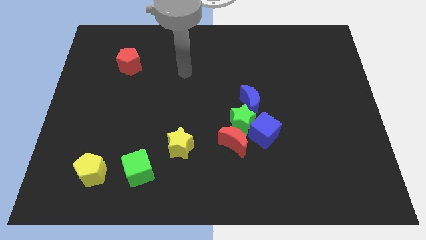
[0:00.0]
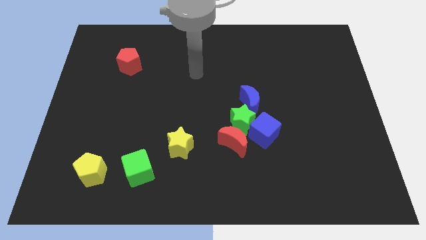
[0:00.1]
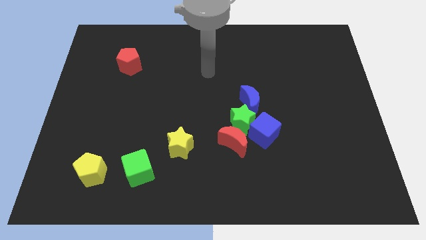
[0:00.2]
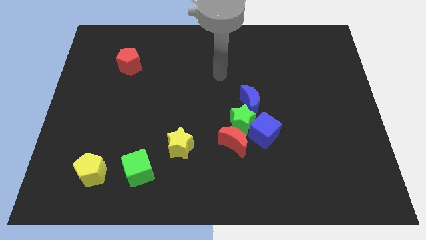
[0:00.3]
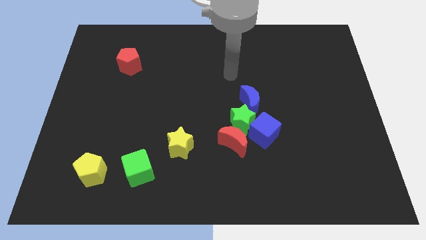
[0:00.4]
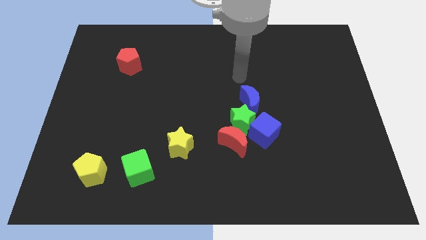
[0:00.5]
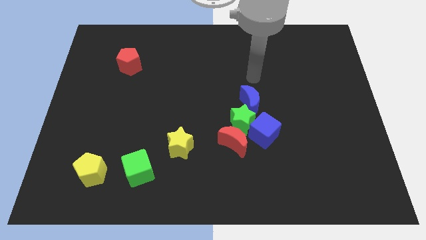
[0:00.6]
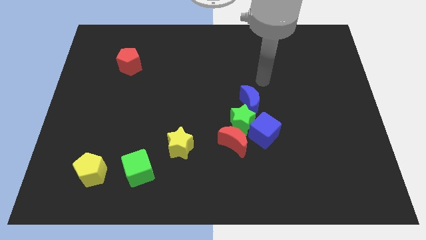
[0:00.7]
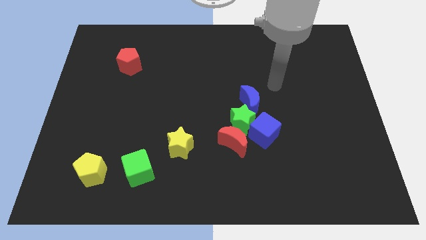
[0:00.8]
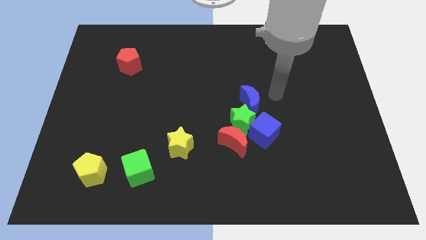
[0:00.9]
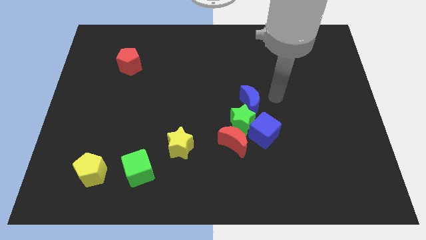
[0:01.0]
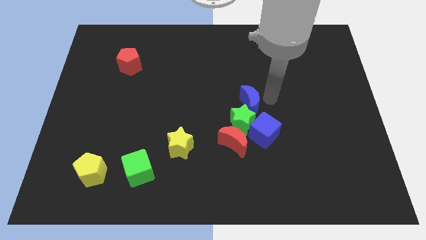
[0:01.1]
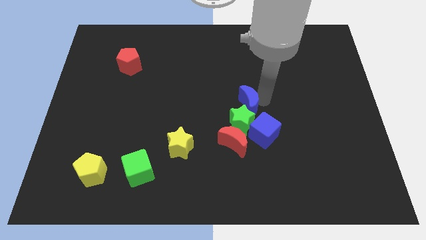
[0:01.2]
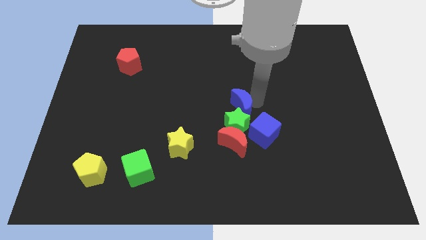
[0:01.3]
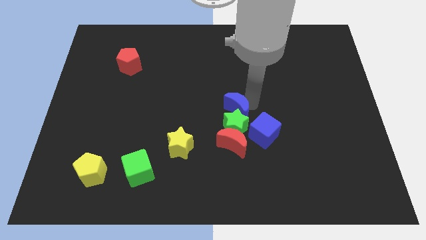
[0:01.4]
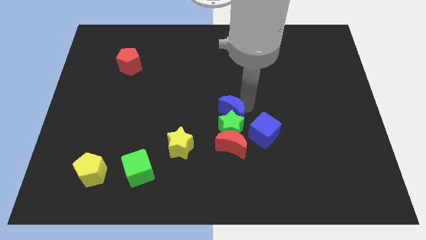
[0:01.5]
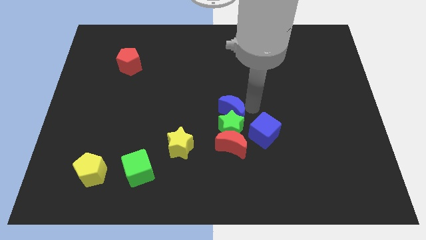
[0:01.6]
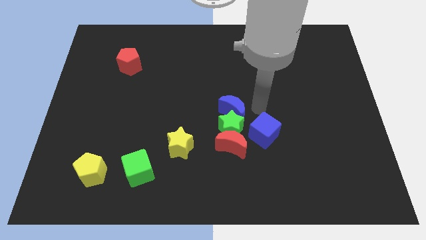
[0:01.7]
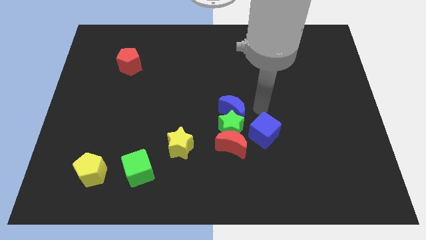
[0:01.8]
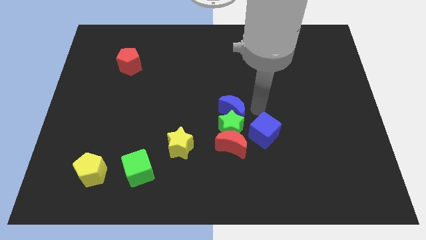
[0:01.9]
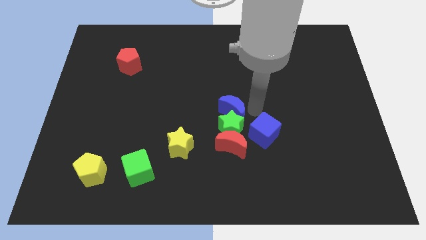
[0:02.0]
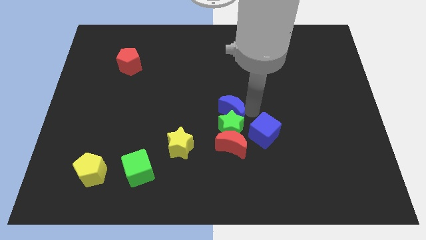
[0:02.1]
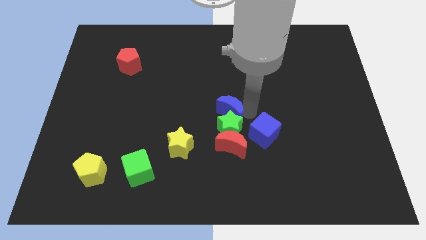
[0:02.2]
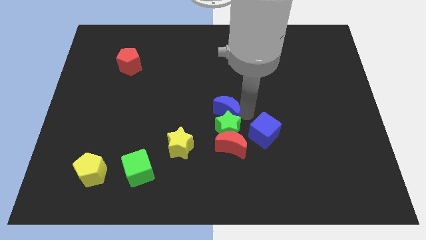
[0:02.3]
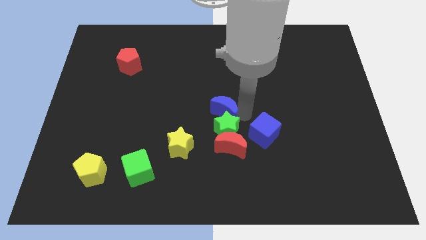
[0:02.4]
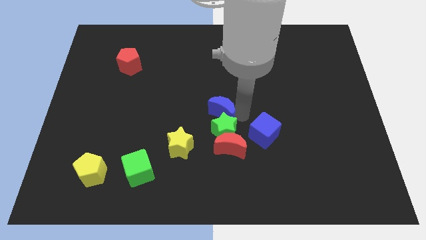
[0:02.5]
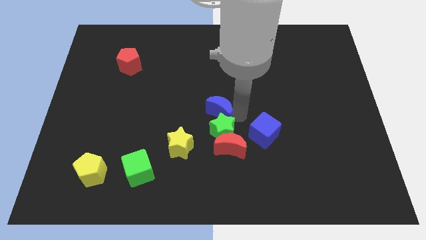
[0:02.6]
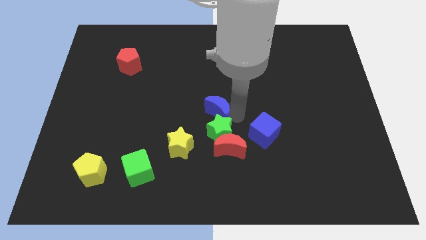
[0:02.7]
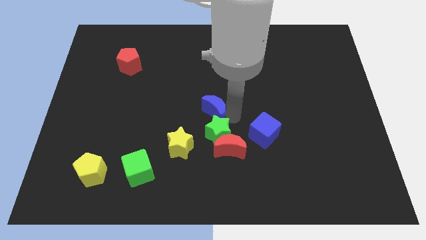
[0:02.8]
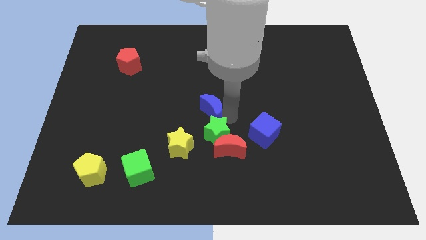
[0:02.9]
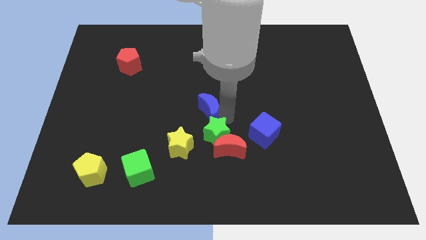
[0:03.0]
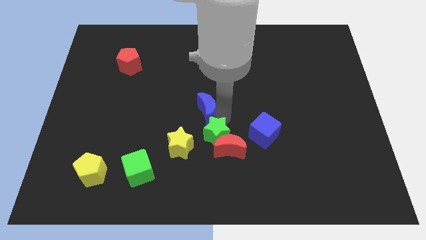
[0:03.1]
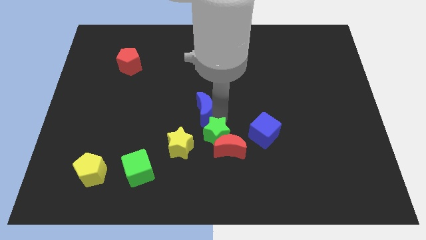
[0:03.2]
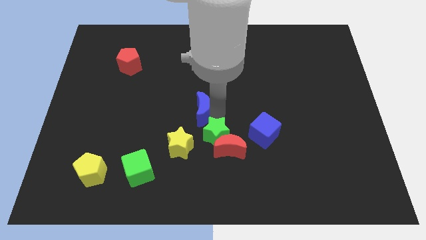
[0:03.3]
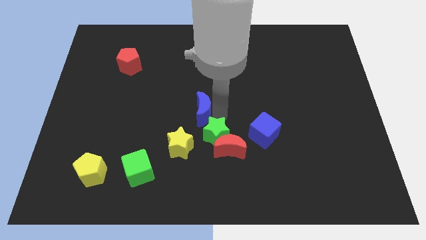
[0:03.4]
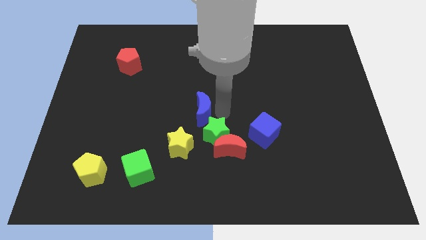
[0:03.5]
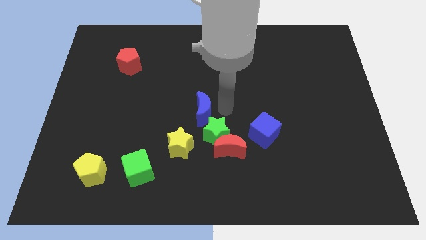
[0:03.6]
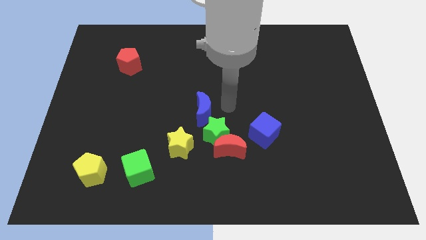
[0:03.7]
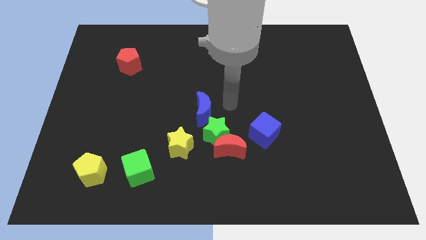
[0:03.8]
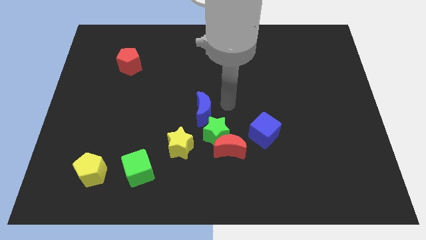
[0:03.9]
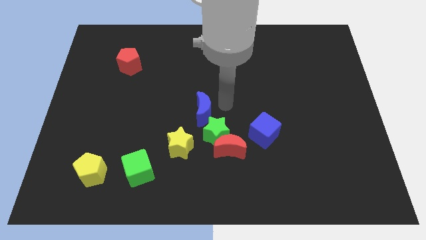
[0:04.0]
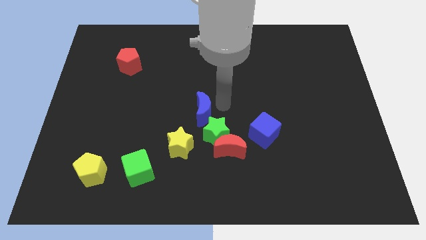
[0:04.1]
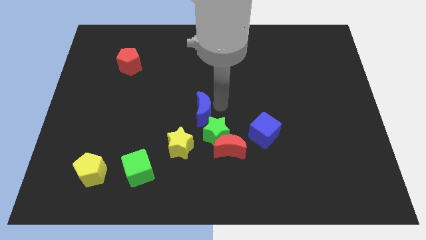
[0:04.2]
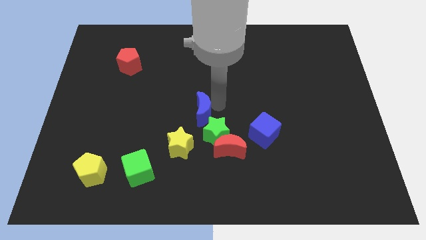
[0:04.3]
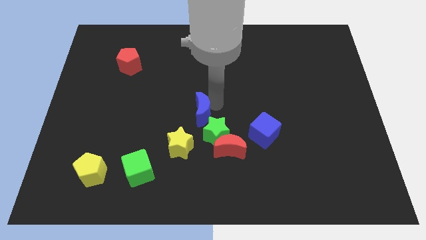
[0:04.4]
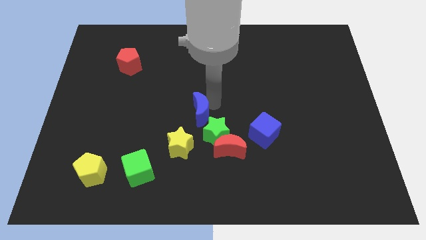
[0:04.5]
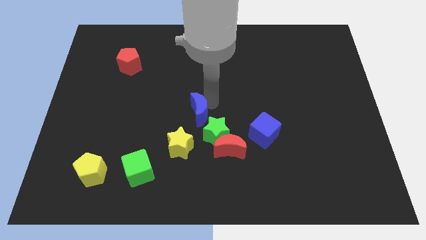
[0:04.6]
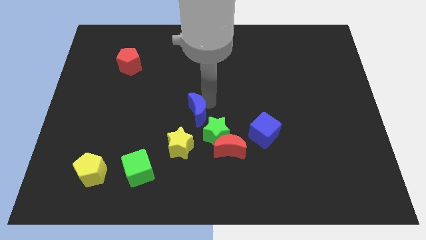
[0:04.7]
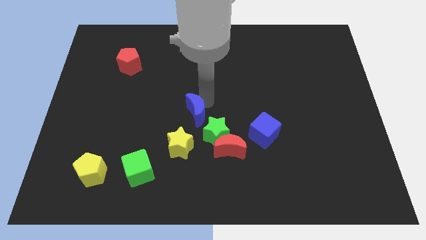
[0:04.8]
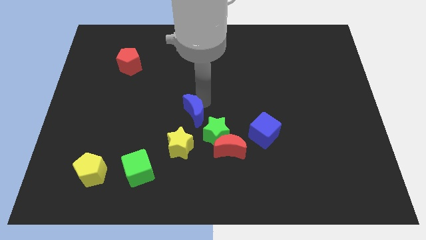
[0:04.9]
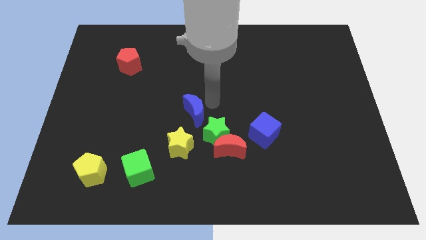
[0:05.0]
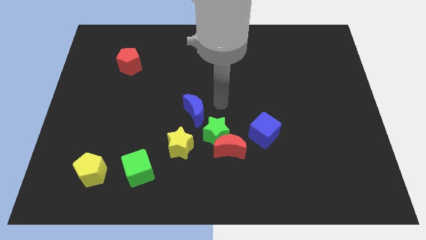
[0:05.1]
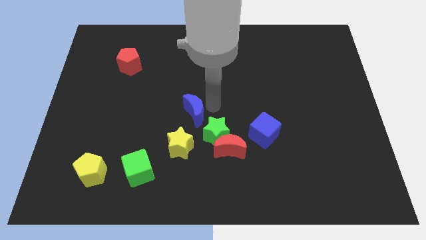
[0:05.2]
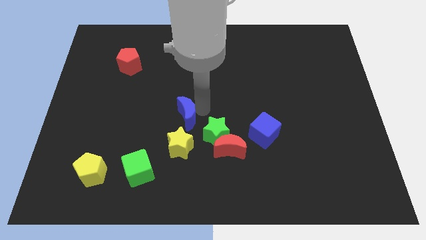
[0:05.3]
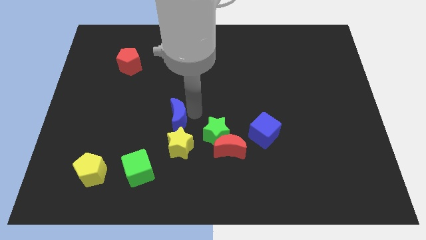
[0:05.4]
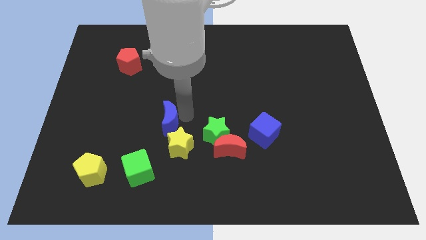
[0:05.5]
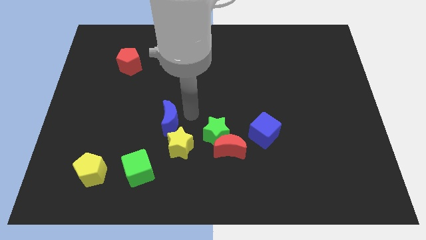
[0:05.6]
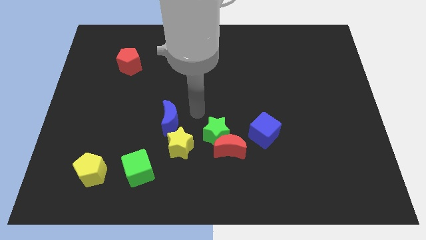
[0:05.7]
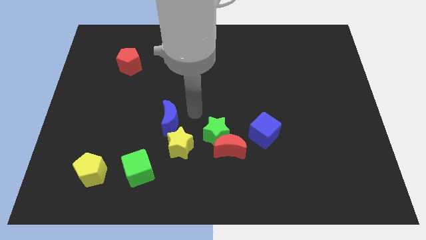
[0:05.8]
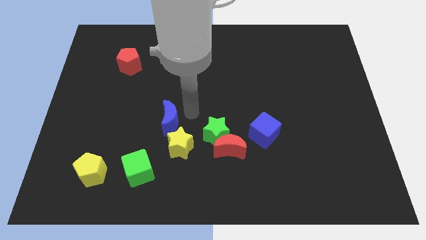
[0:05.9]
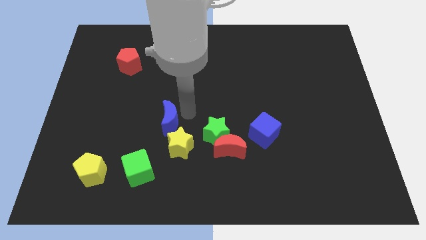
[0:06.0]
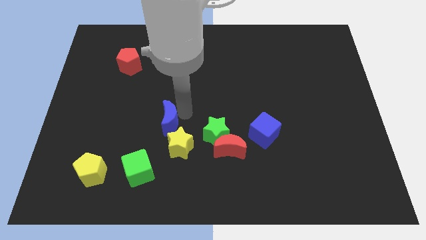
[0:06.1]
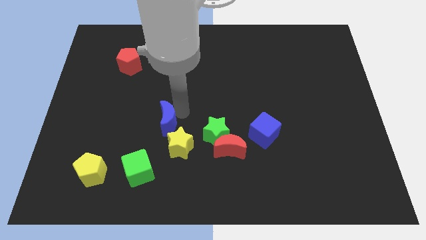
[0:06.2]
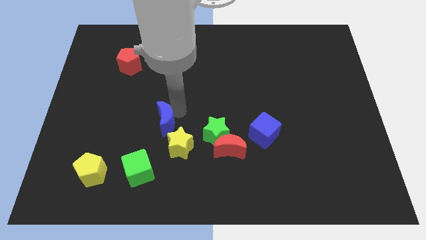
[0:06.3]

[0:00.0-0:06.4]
put the blue moon to the top of the green cube

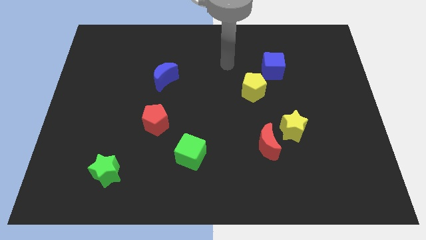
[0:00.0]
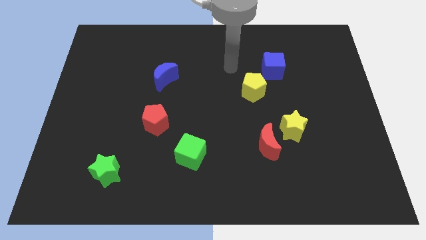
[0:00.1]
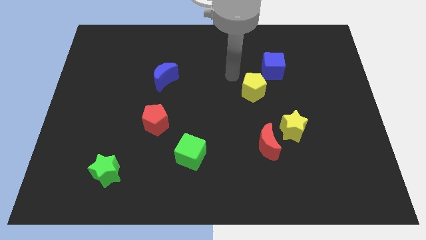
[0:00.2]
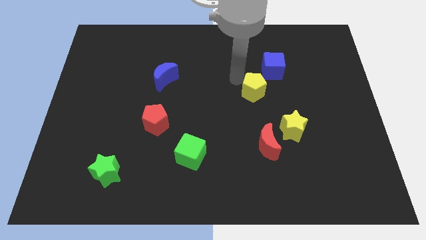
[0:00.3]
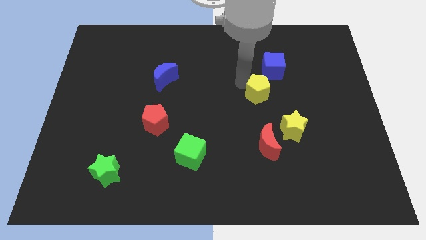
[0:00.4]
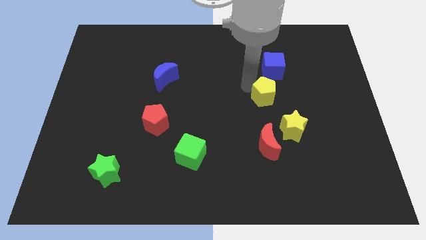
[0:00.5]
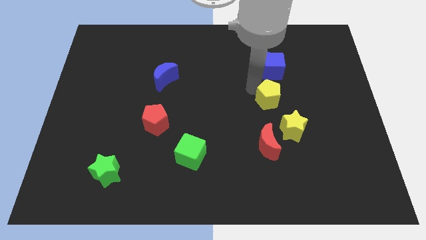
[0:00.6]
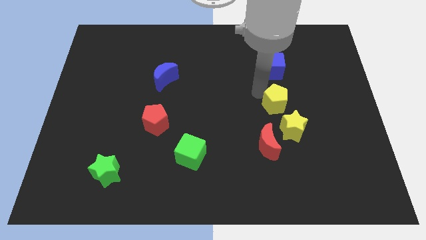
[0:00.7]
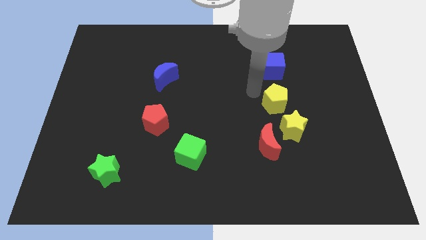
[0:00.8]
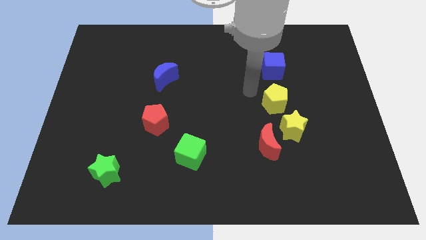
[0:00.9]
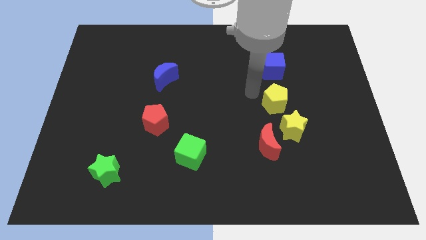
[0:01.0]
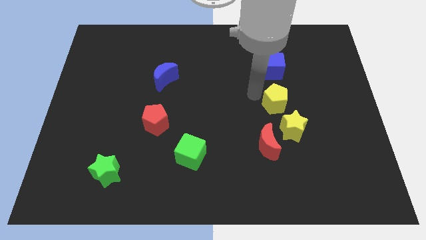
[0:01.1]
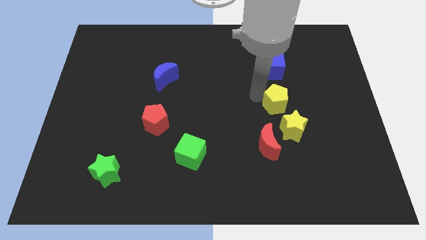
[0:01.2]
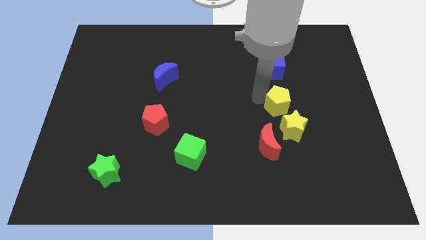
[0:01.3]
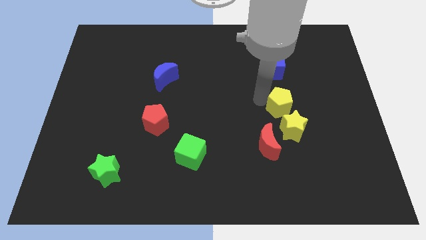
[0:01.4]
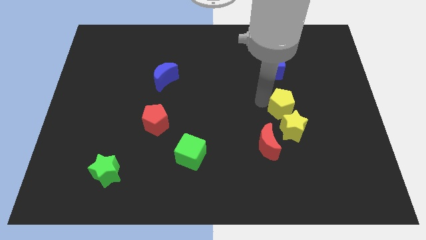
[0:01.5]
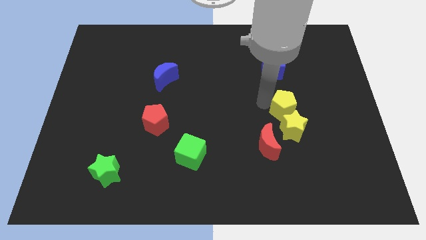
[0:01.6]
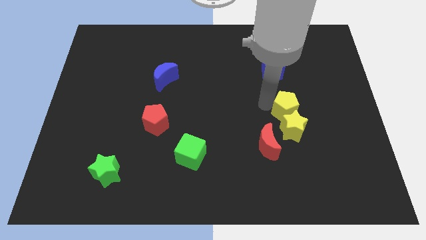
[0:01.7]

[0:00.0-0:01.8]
put the yellow pentagon to the top right side of the yellow star
